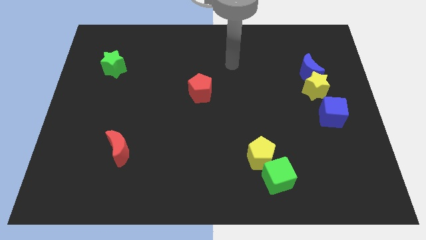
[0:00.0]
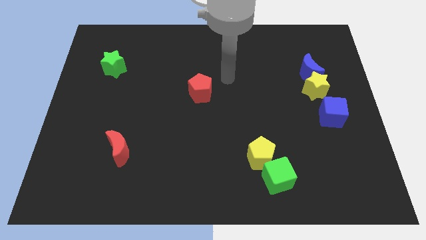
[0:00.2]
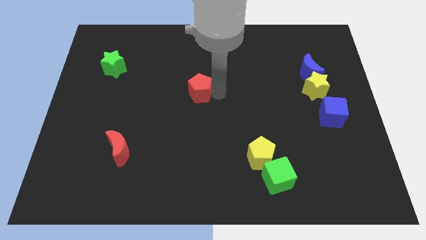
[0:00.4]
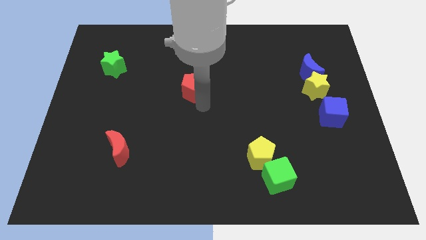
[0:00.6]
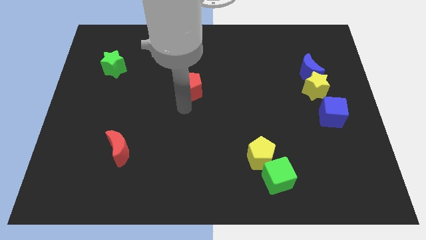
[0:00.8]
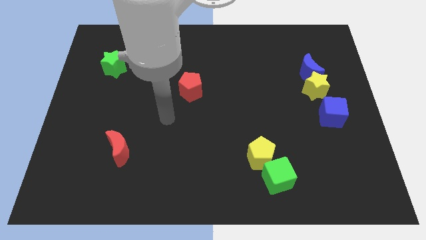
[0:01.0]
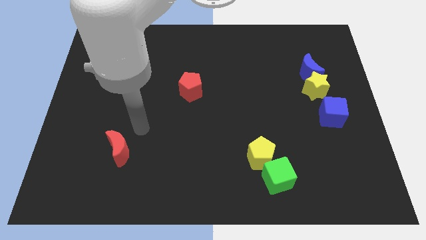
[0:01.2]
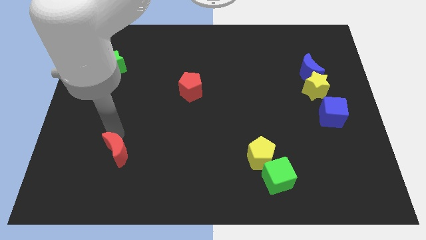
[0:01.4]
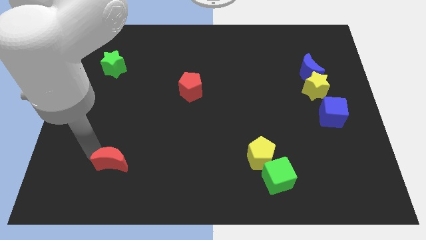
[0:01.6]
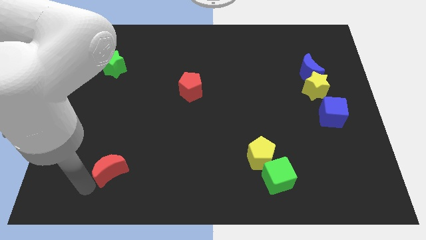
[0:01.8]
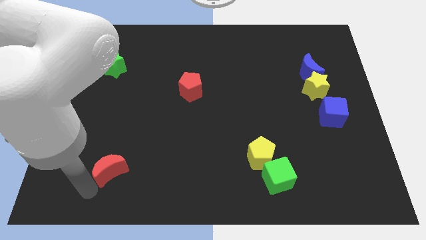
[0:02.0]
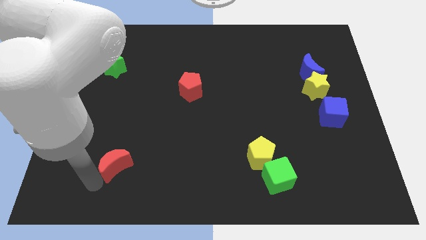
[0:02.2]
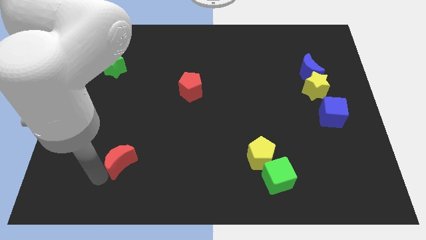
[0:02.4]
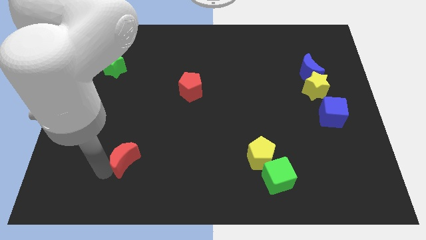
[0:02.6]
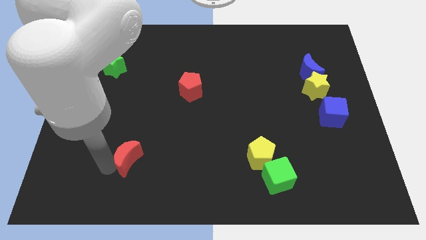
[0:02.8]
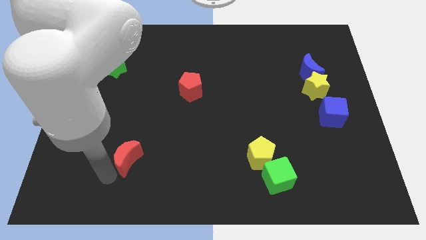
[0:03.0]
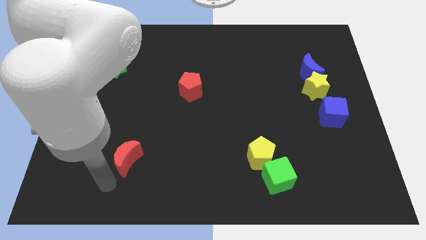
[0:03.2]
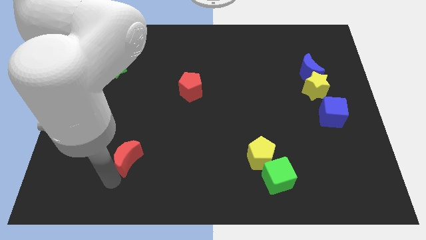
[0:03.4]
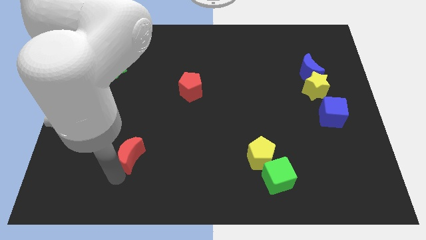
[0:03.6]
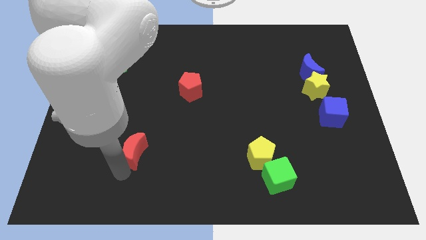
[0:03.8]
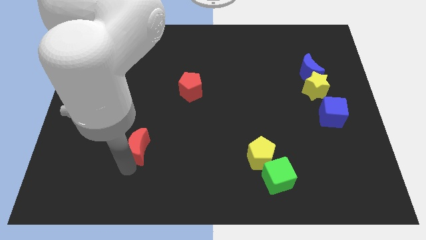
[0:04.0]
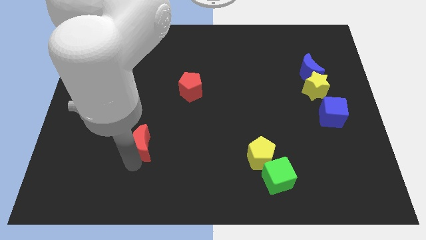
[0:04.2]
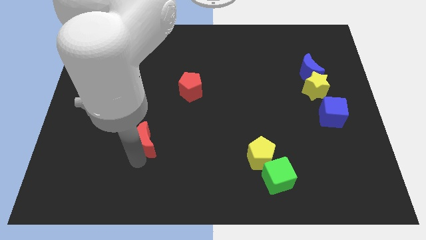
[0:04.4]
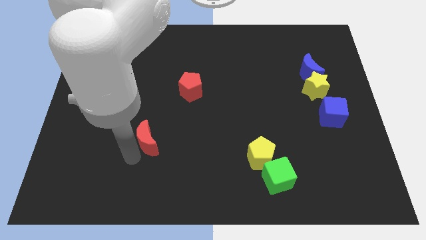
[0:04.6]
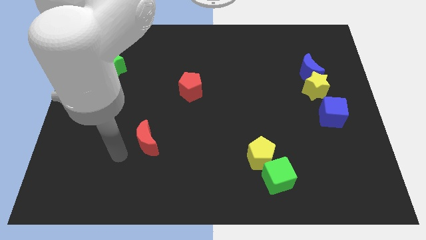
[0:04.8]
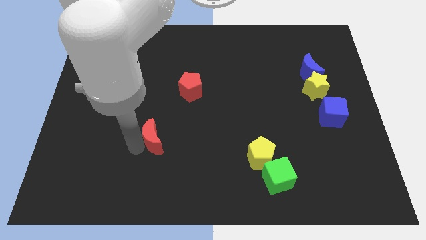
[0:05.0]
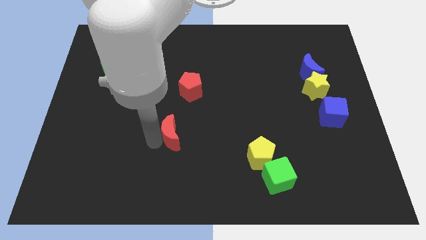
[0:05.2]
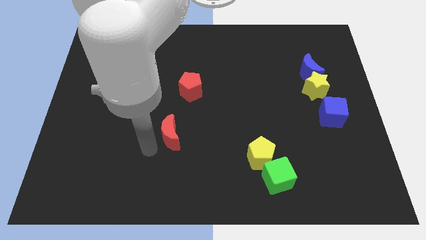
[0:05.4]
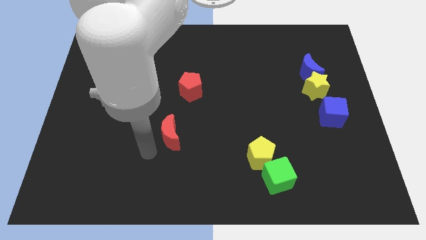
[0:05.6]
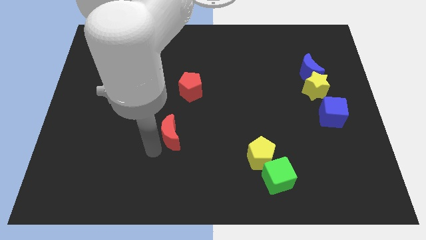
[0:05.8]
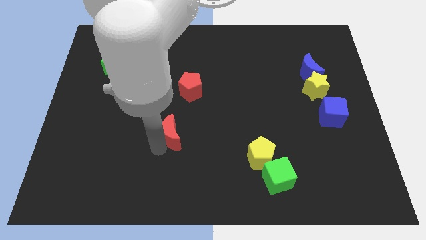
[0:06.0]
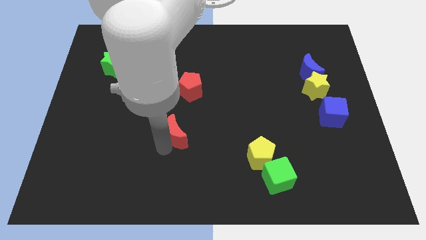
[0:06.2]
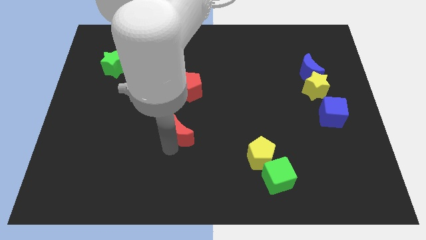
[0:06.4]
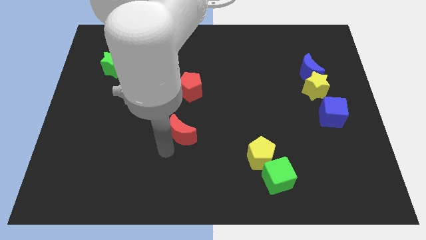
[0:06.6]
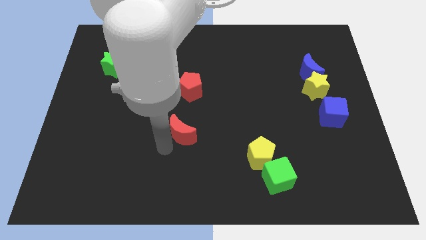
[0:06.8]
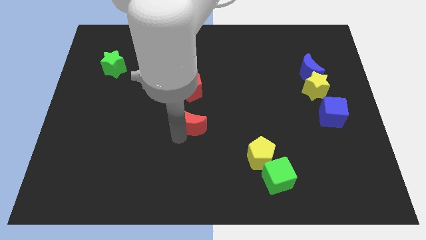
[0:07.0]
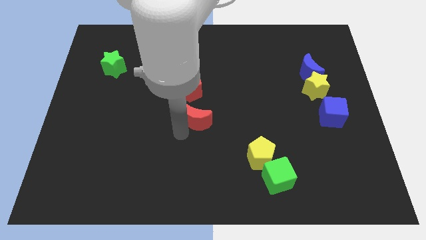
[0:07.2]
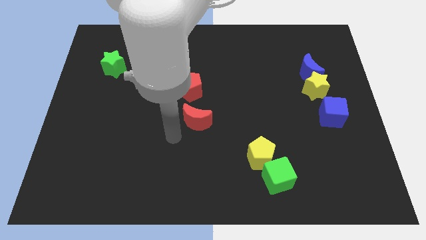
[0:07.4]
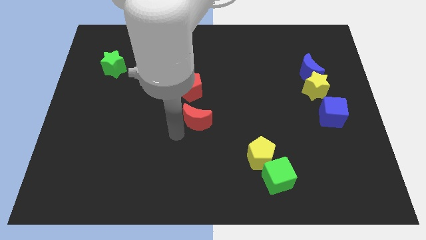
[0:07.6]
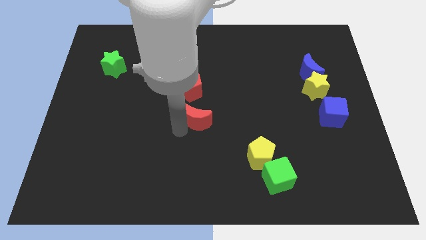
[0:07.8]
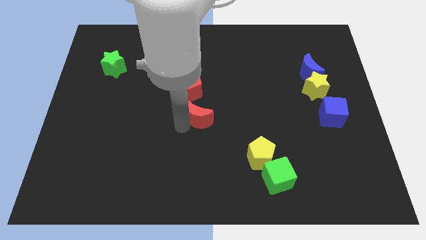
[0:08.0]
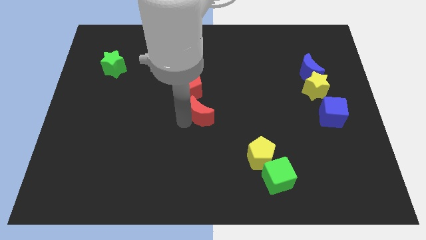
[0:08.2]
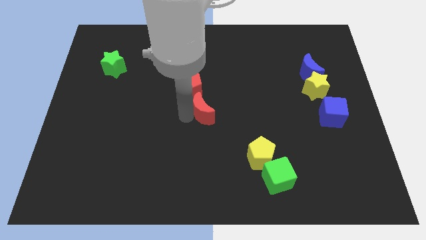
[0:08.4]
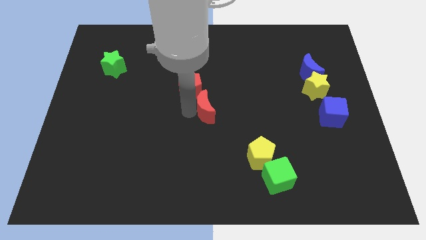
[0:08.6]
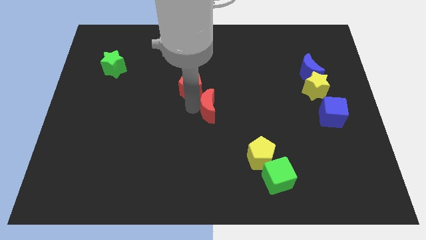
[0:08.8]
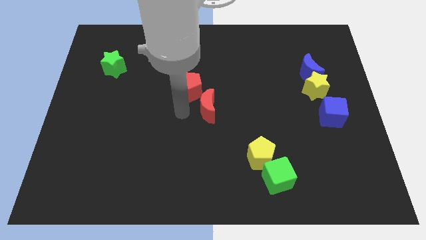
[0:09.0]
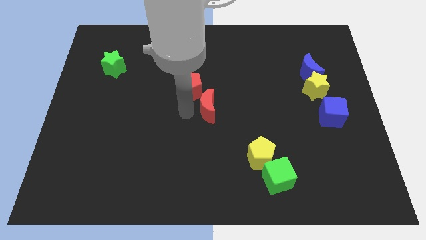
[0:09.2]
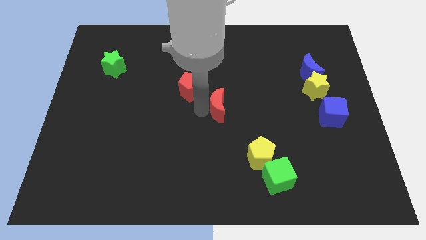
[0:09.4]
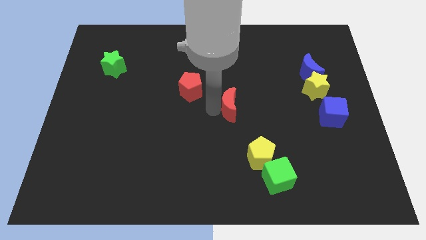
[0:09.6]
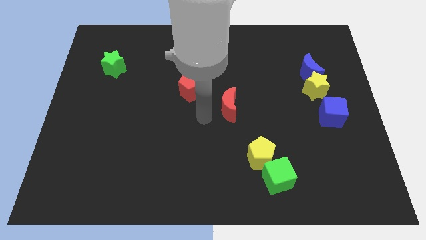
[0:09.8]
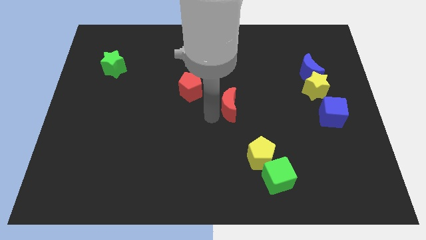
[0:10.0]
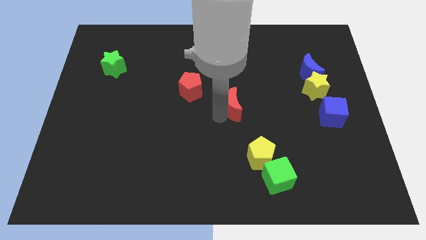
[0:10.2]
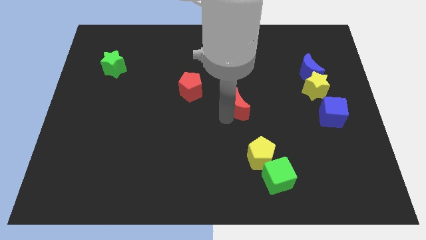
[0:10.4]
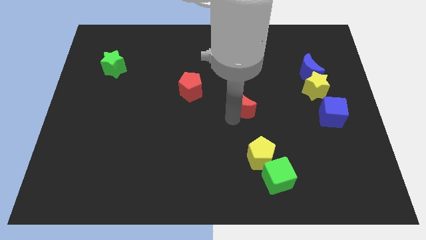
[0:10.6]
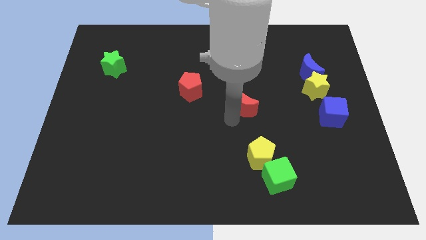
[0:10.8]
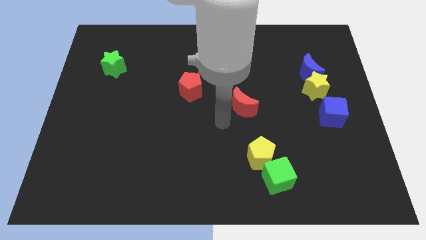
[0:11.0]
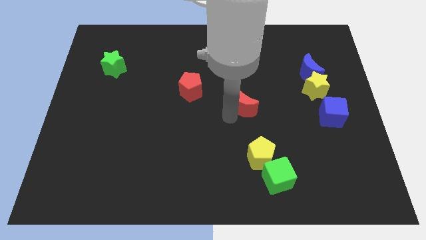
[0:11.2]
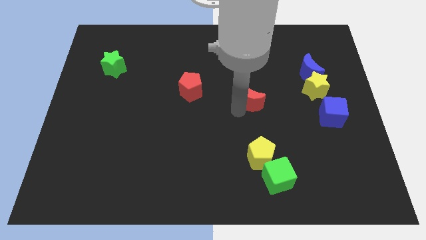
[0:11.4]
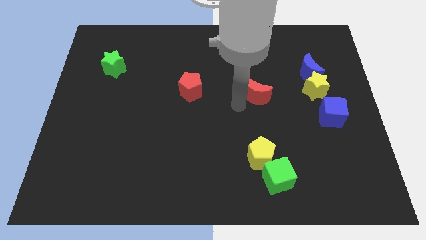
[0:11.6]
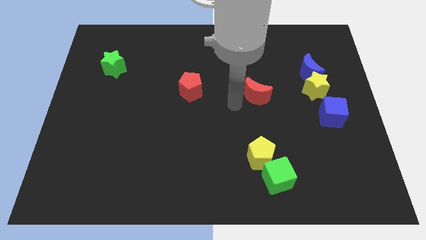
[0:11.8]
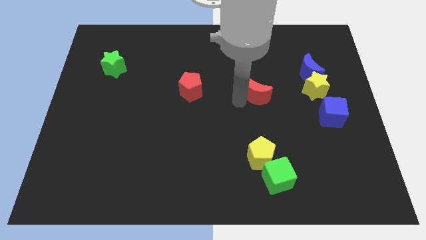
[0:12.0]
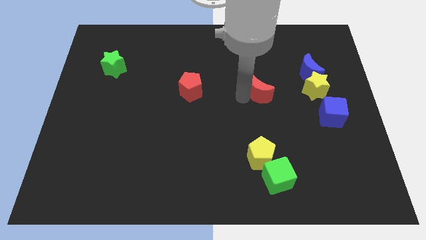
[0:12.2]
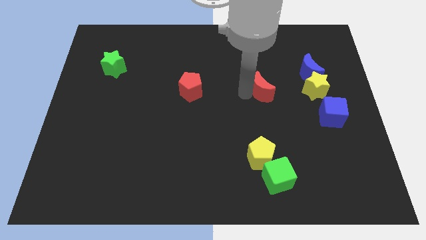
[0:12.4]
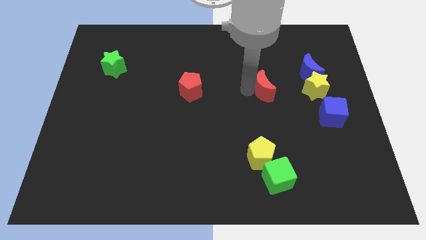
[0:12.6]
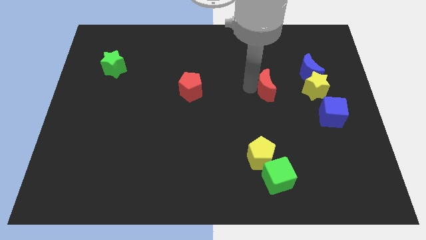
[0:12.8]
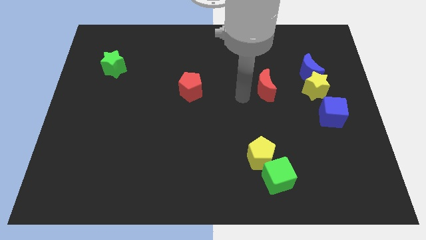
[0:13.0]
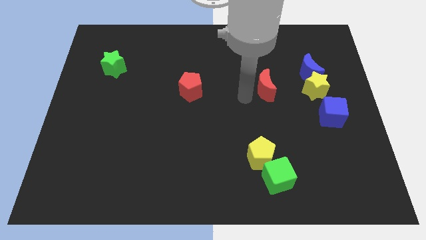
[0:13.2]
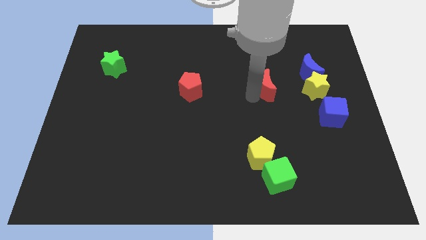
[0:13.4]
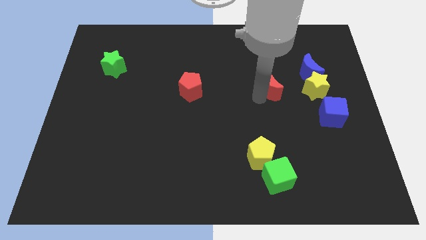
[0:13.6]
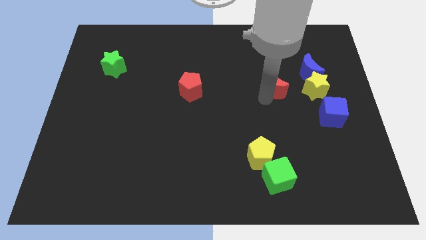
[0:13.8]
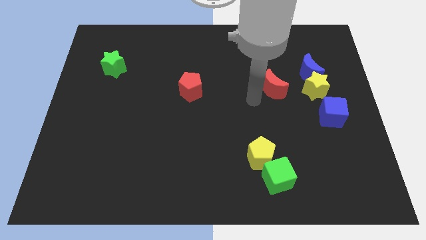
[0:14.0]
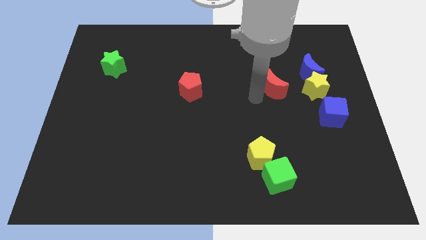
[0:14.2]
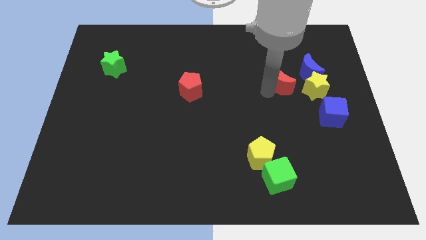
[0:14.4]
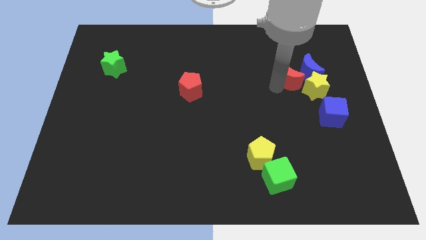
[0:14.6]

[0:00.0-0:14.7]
slide the red moon next to the blue moon
